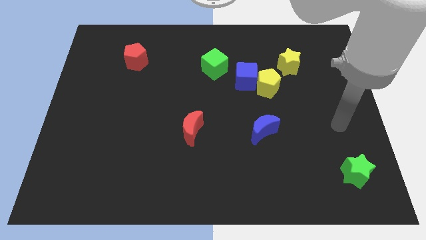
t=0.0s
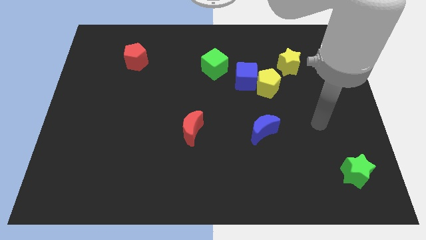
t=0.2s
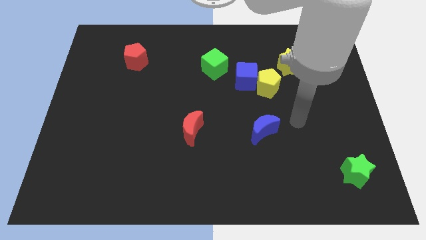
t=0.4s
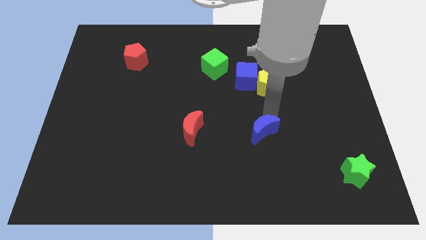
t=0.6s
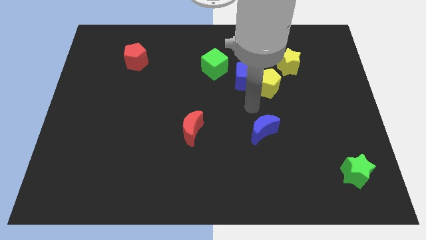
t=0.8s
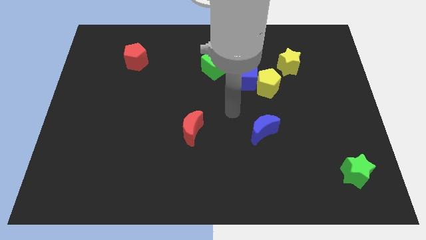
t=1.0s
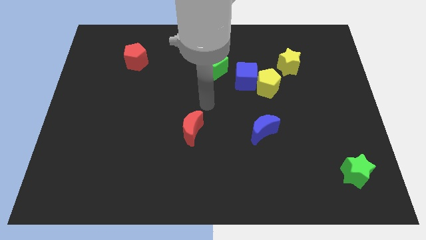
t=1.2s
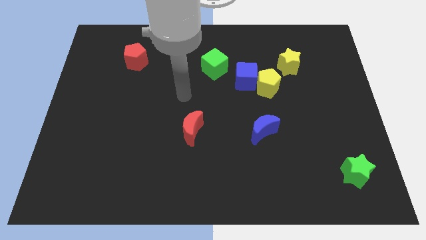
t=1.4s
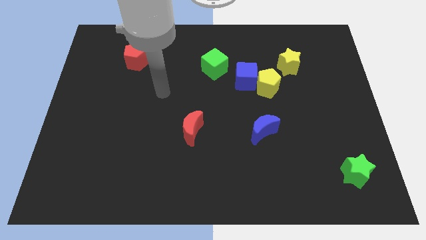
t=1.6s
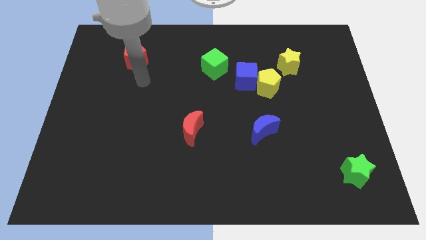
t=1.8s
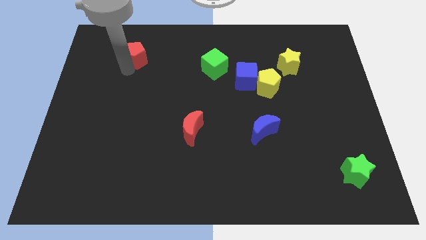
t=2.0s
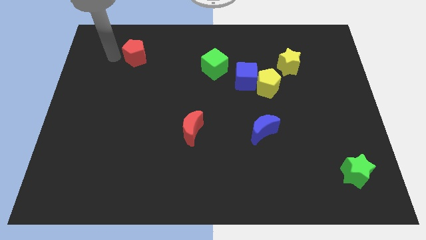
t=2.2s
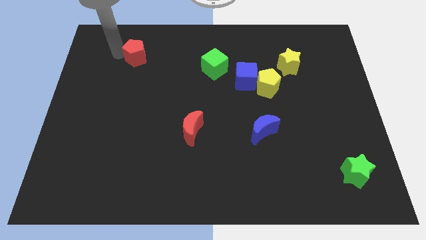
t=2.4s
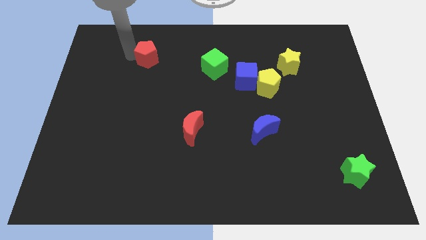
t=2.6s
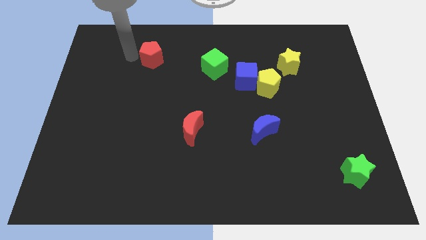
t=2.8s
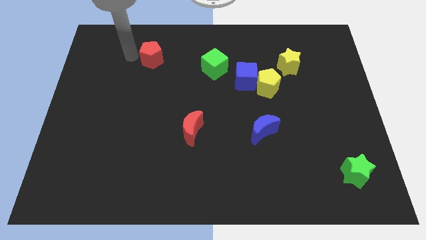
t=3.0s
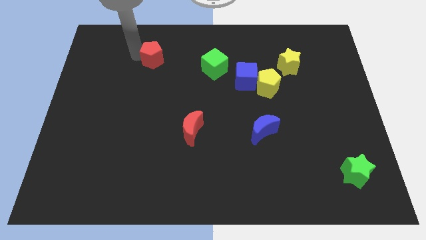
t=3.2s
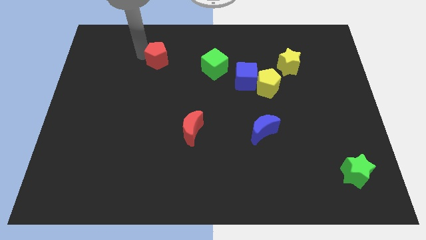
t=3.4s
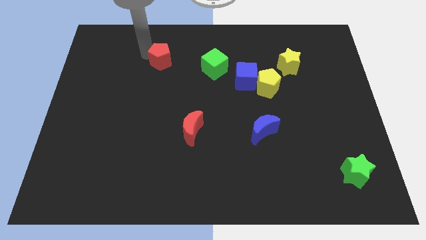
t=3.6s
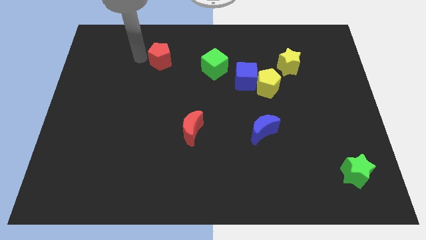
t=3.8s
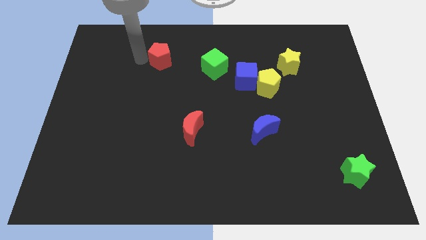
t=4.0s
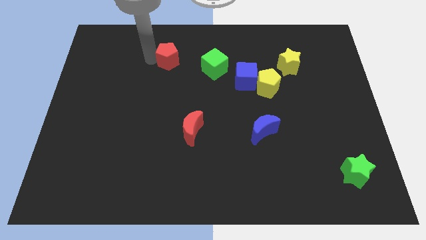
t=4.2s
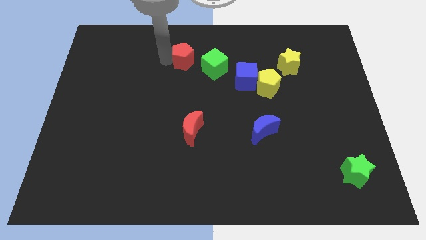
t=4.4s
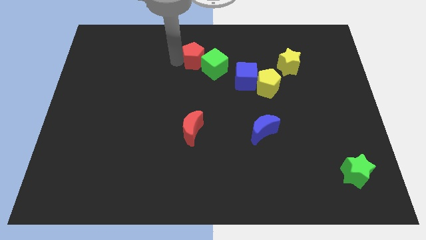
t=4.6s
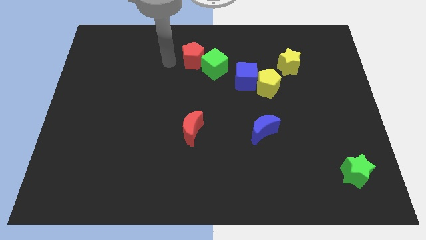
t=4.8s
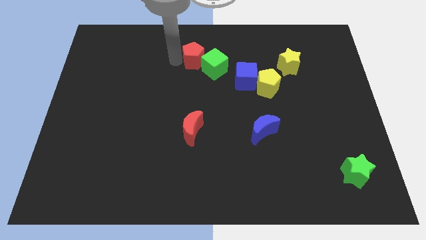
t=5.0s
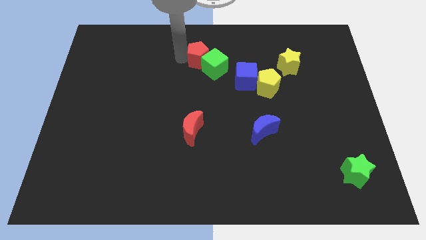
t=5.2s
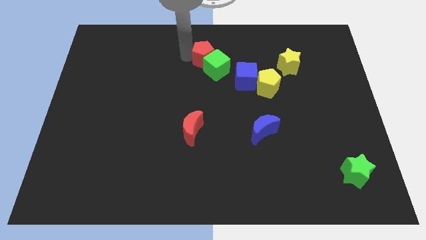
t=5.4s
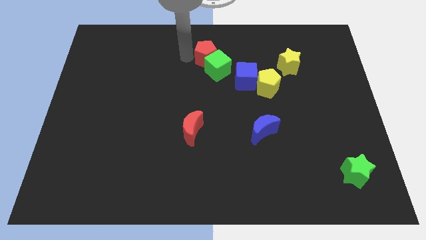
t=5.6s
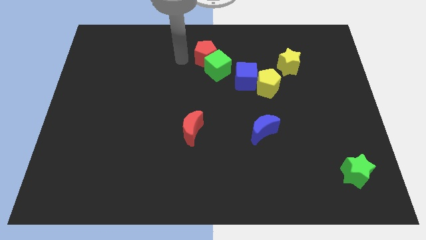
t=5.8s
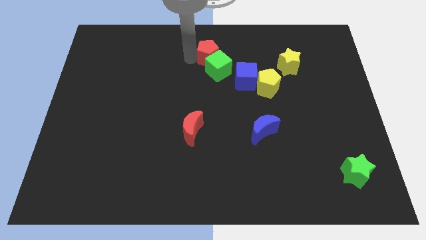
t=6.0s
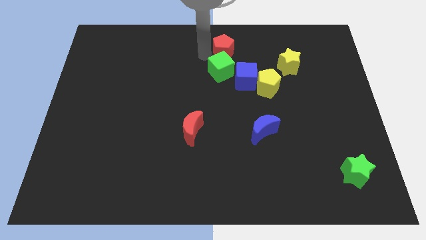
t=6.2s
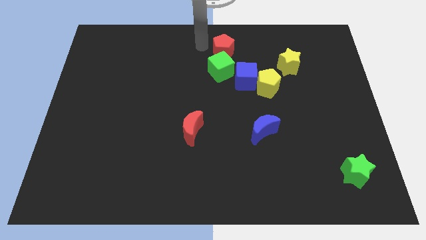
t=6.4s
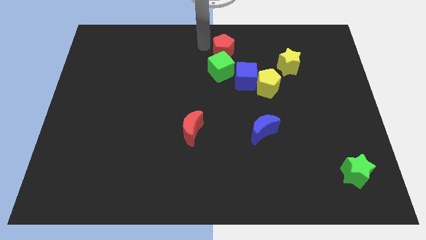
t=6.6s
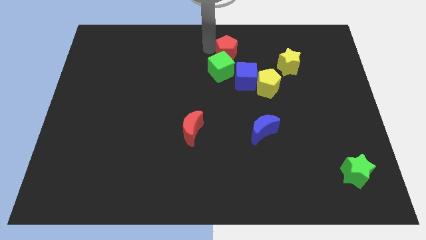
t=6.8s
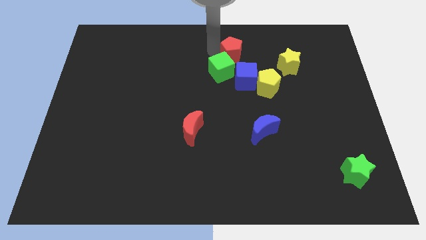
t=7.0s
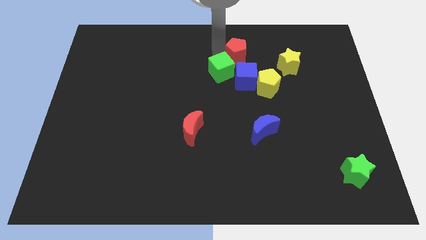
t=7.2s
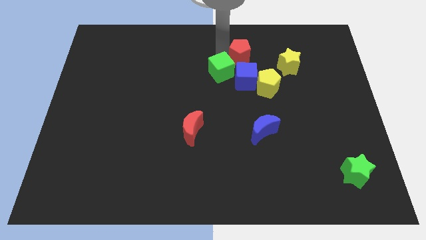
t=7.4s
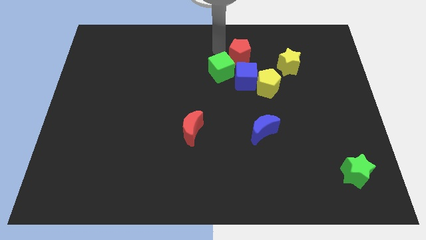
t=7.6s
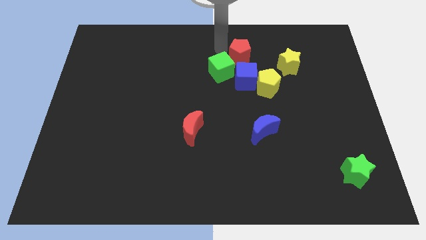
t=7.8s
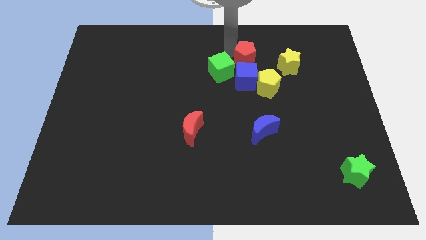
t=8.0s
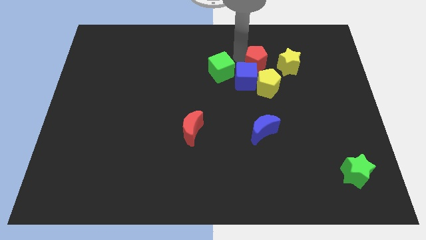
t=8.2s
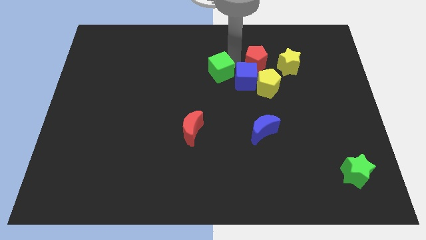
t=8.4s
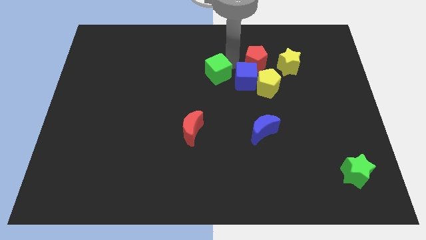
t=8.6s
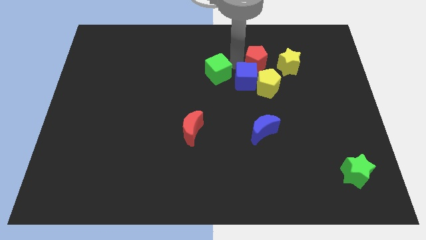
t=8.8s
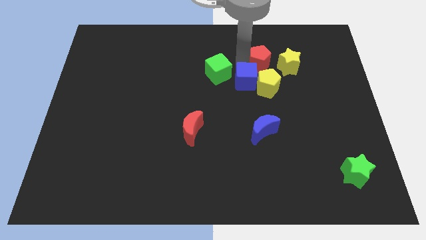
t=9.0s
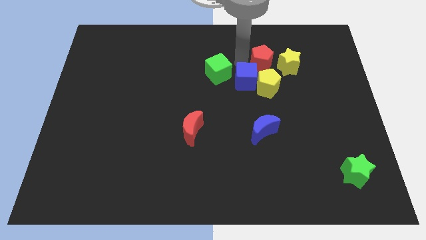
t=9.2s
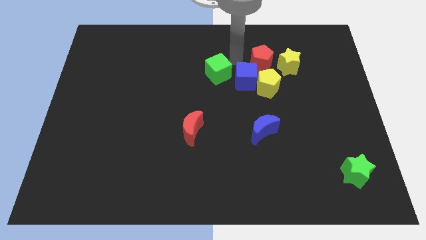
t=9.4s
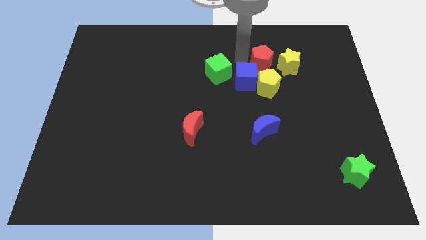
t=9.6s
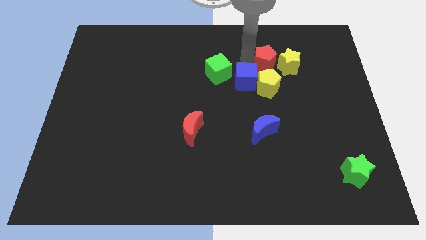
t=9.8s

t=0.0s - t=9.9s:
push the red pentagon towards the yellow star

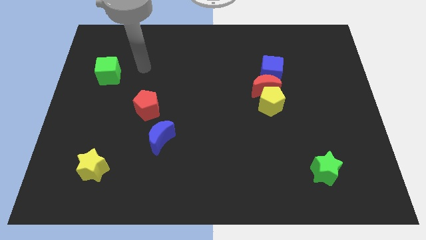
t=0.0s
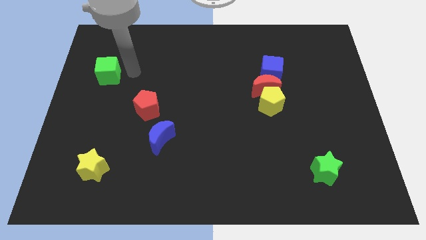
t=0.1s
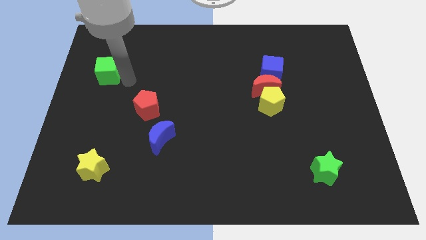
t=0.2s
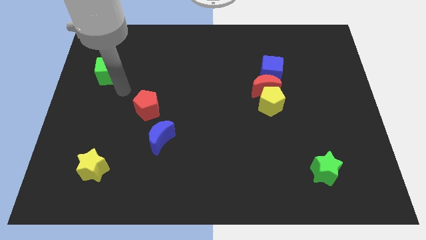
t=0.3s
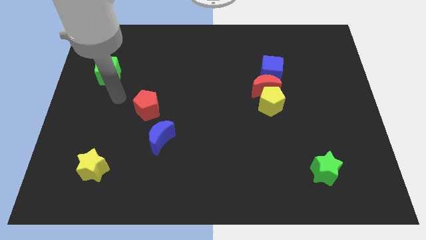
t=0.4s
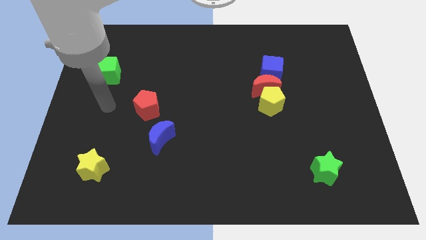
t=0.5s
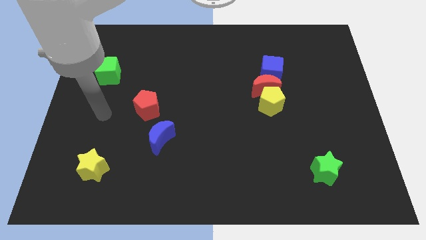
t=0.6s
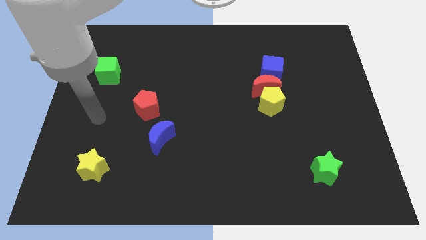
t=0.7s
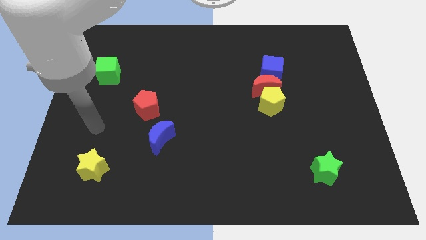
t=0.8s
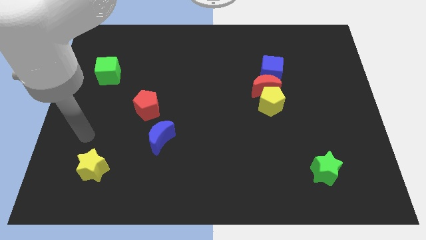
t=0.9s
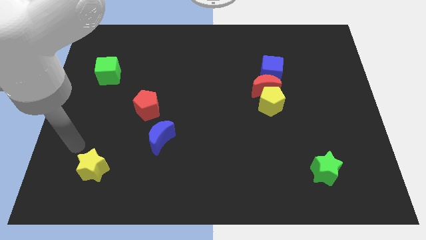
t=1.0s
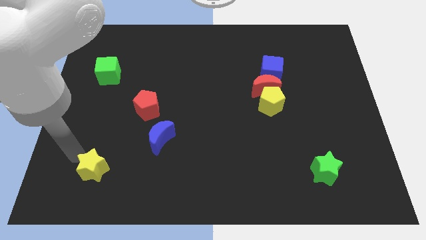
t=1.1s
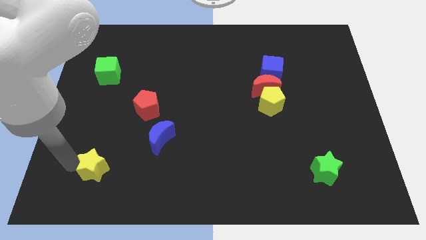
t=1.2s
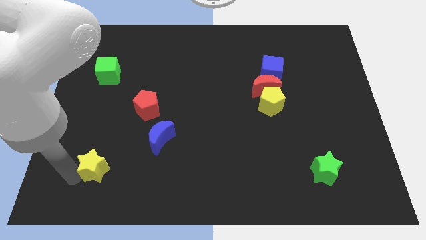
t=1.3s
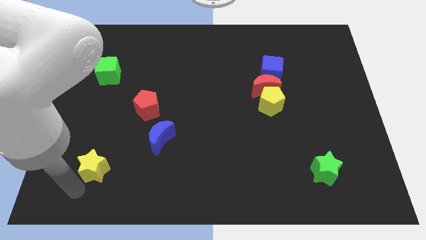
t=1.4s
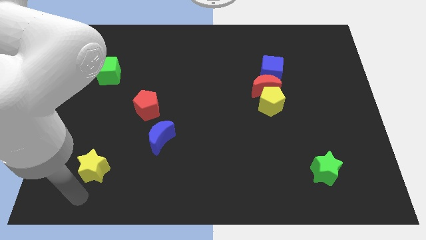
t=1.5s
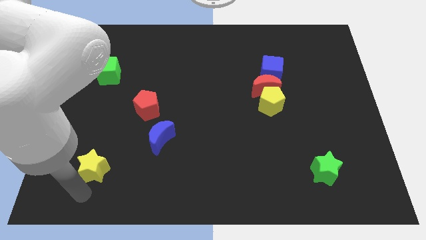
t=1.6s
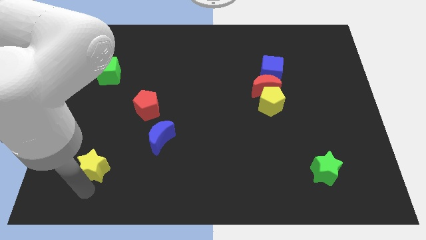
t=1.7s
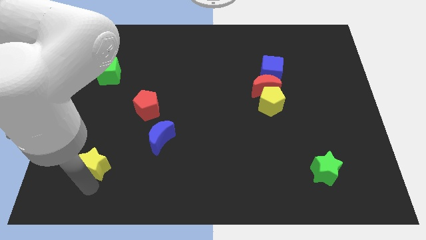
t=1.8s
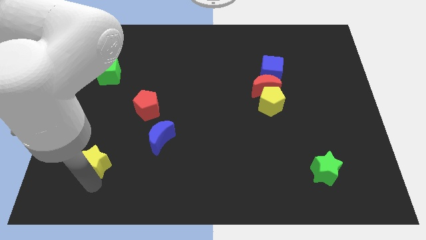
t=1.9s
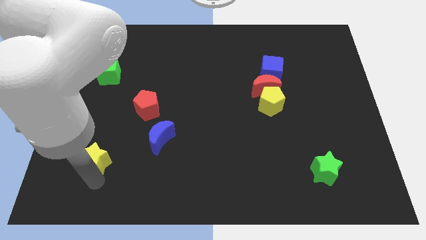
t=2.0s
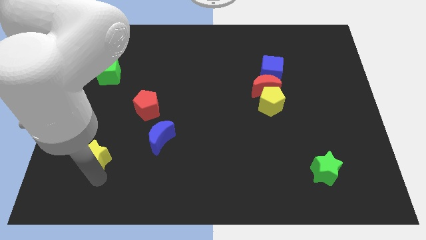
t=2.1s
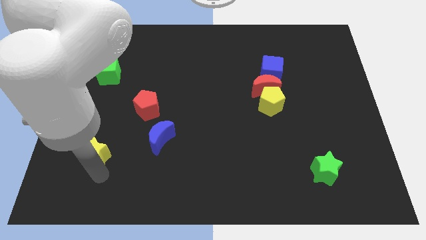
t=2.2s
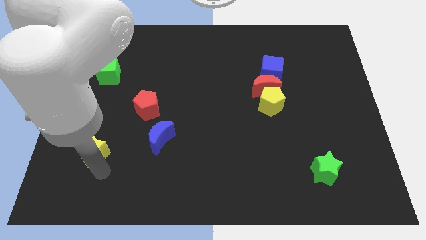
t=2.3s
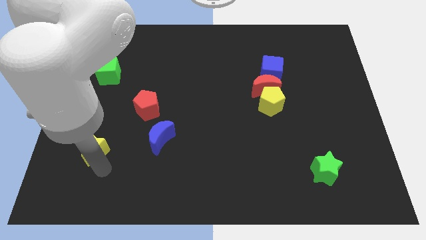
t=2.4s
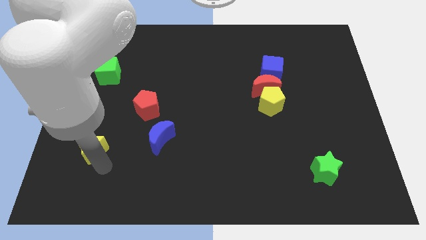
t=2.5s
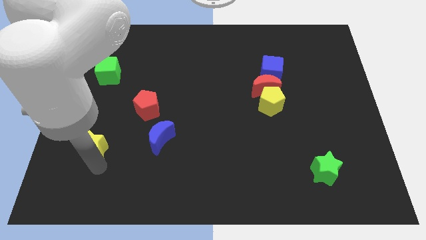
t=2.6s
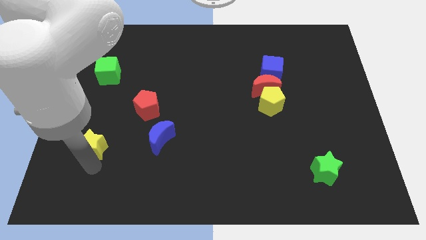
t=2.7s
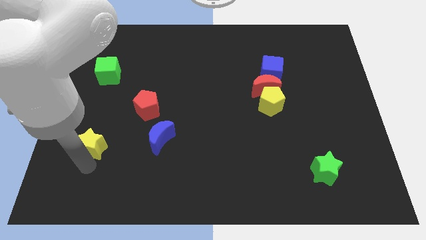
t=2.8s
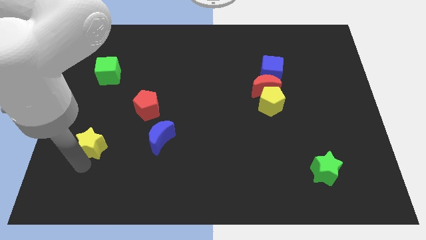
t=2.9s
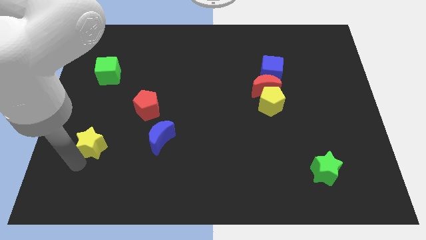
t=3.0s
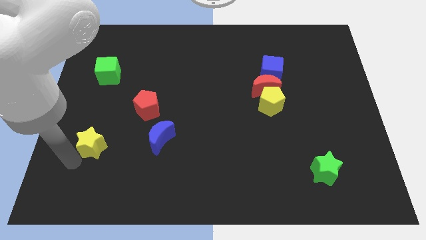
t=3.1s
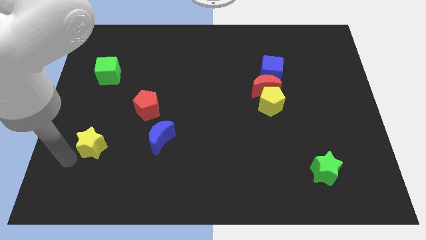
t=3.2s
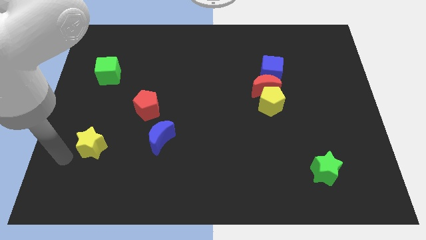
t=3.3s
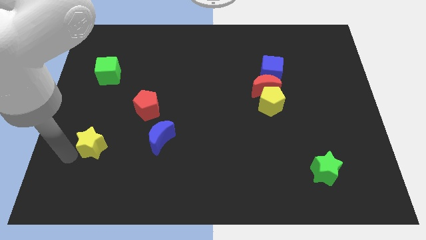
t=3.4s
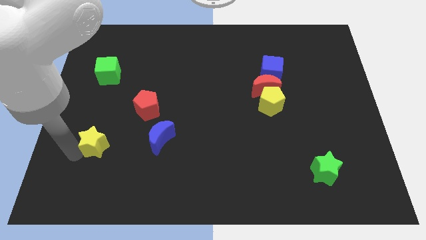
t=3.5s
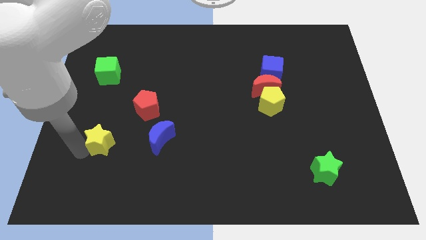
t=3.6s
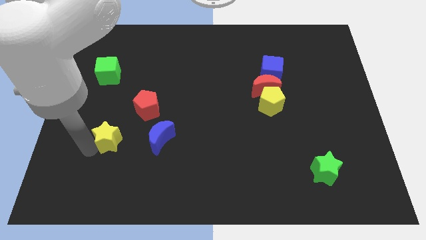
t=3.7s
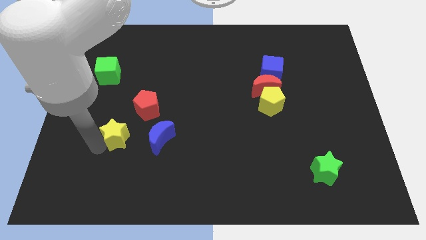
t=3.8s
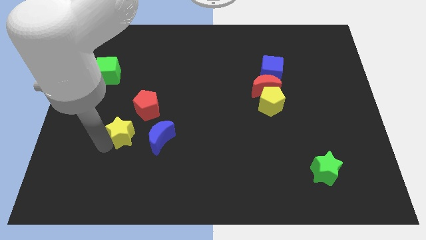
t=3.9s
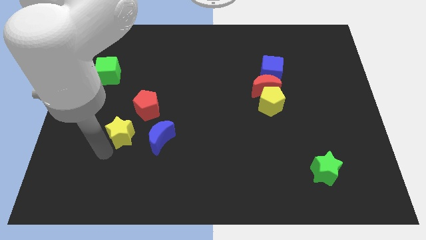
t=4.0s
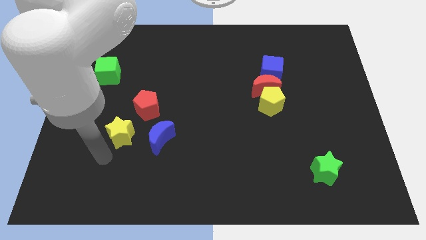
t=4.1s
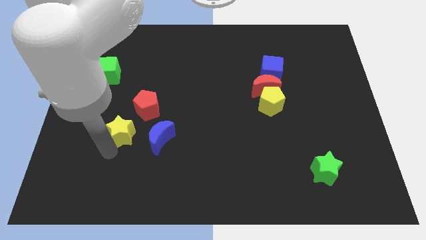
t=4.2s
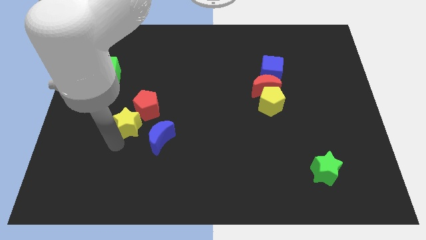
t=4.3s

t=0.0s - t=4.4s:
put the yellow star close to the red pentagon
